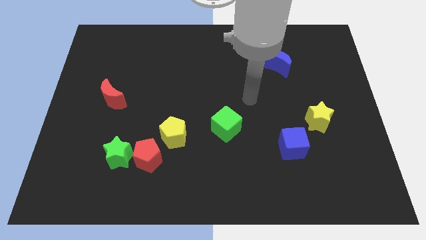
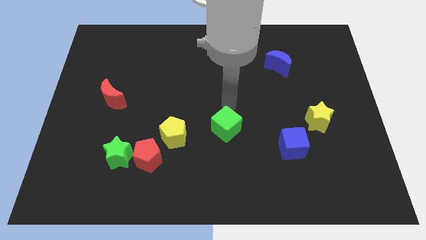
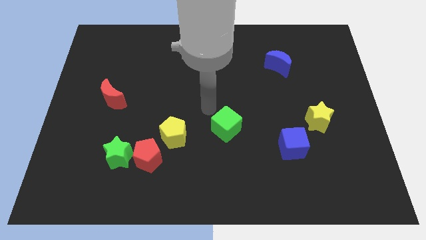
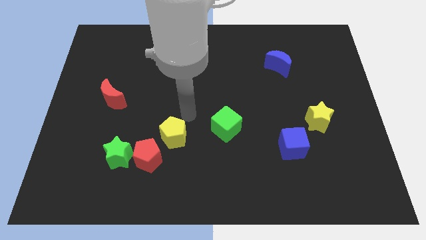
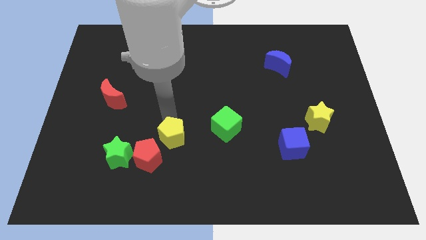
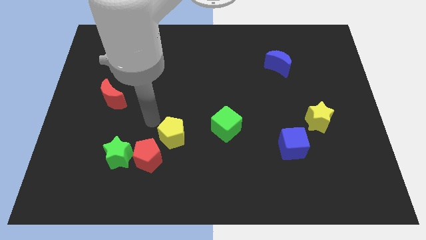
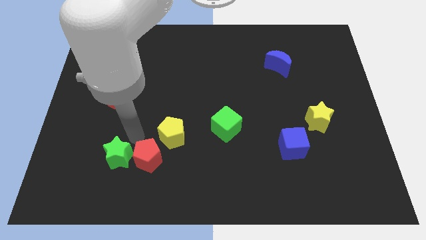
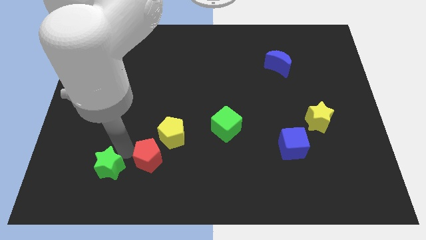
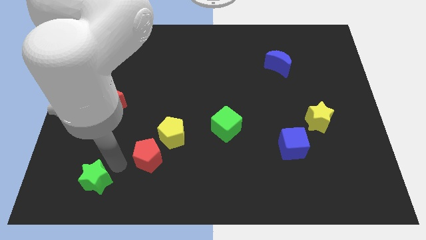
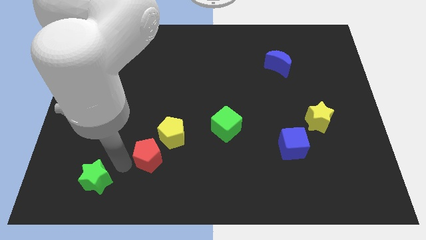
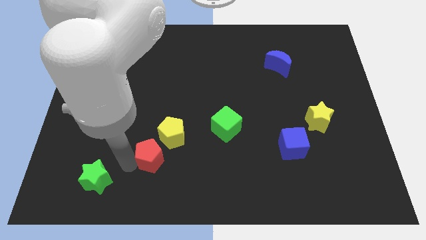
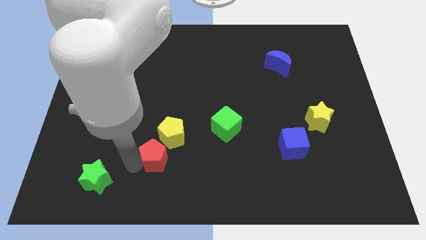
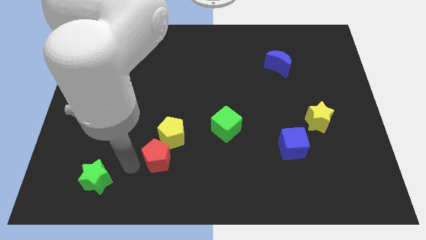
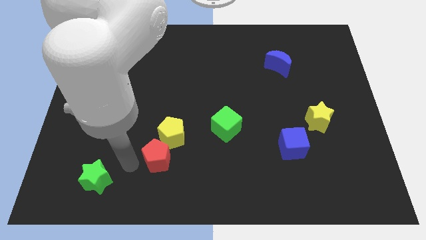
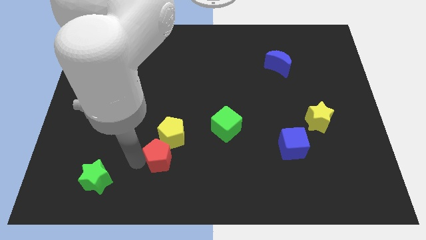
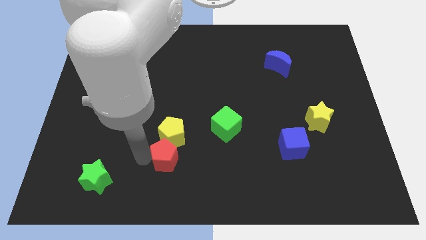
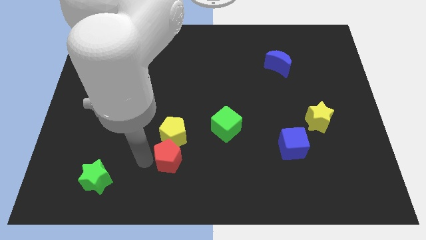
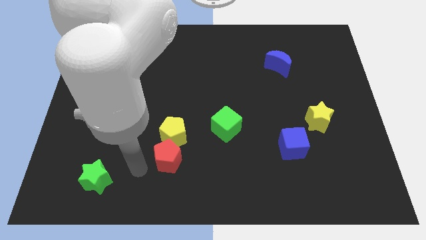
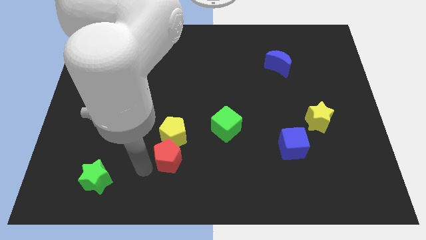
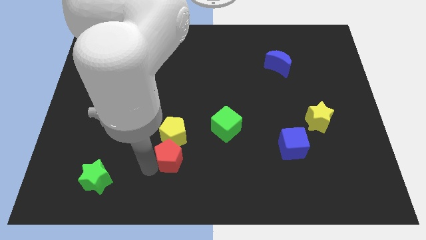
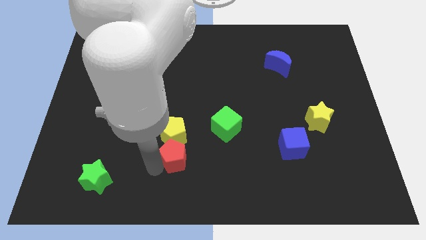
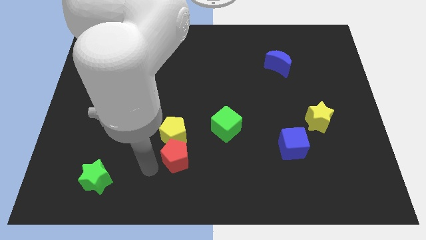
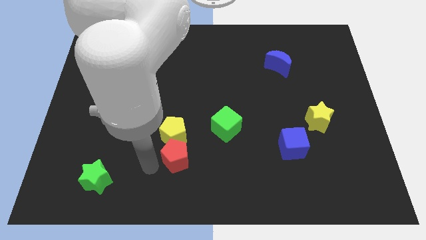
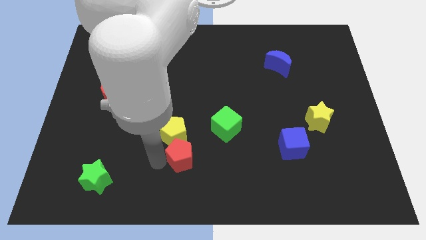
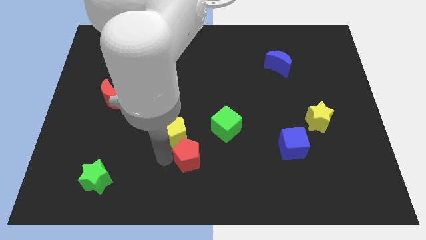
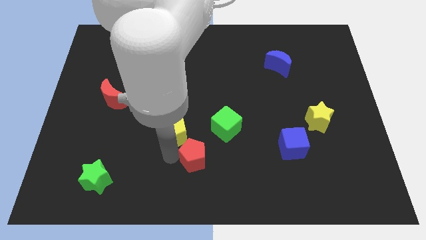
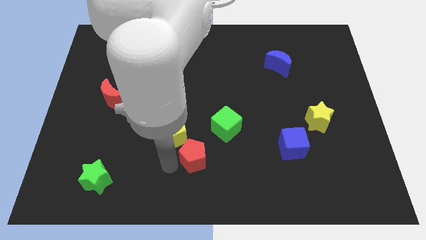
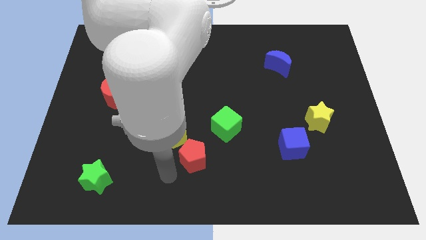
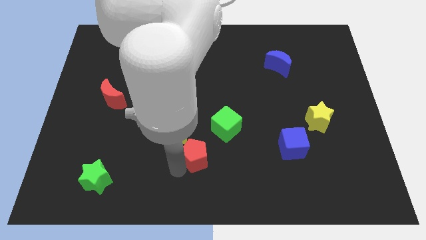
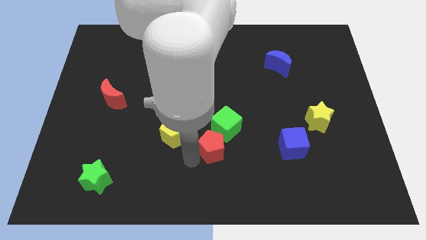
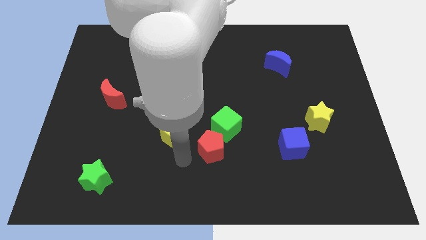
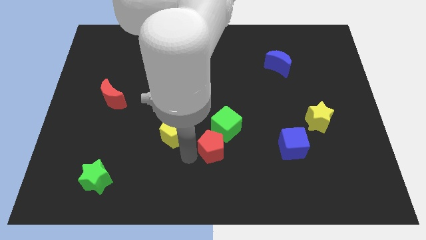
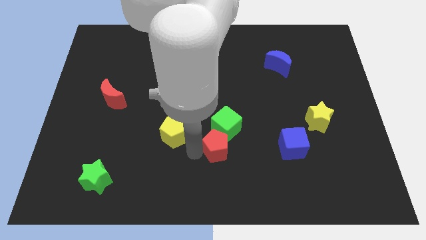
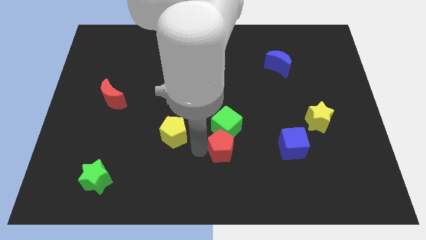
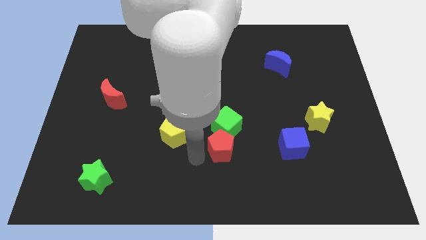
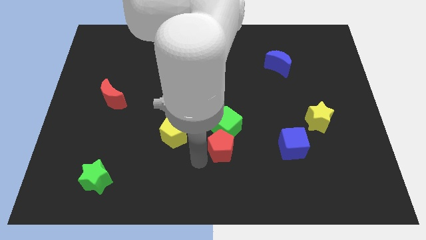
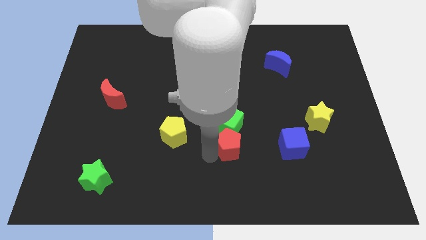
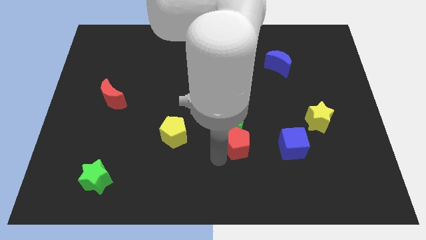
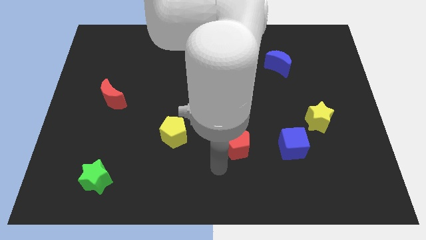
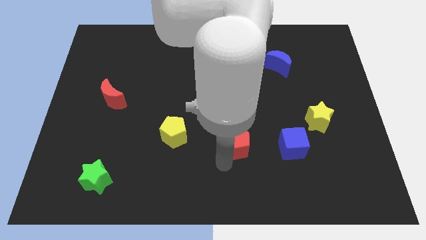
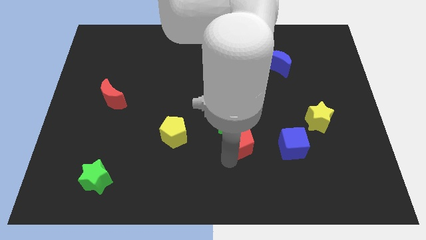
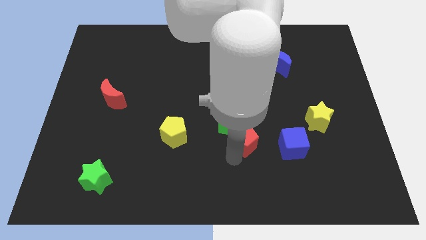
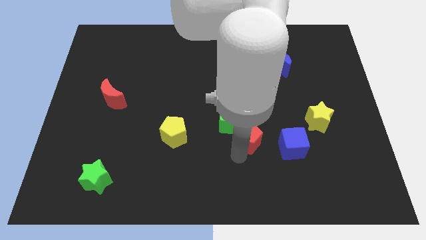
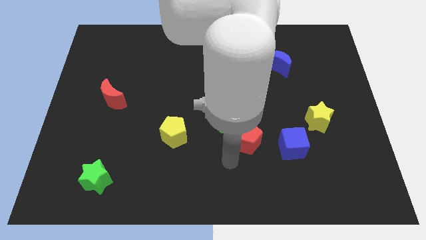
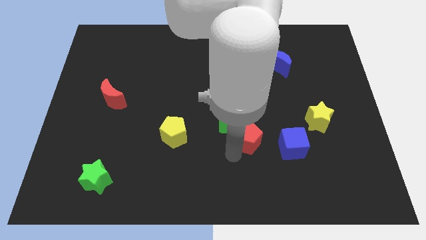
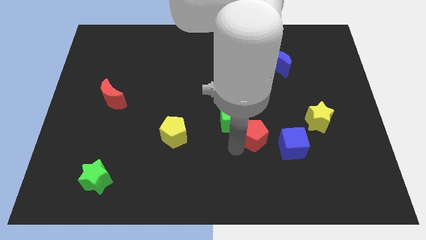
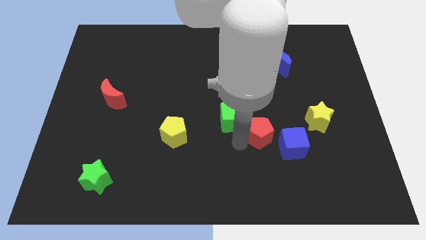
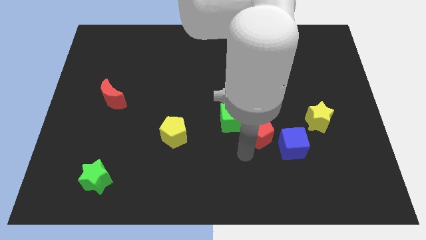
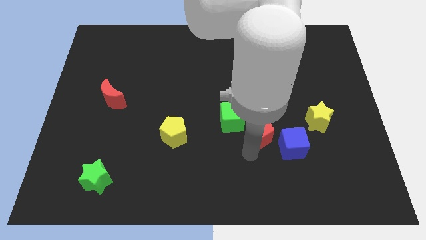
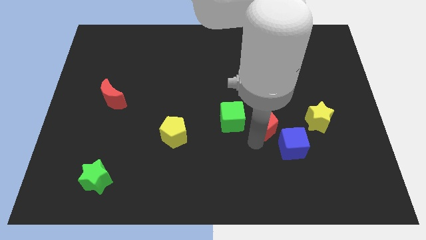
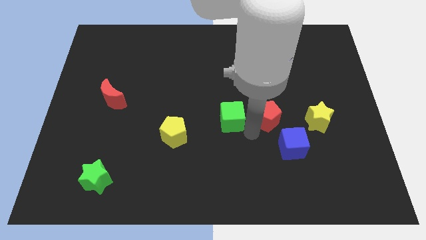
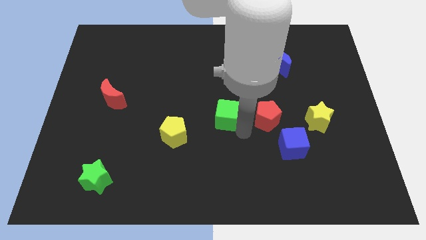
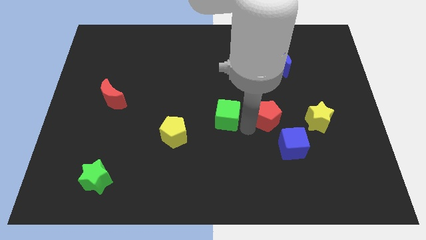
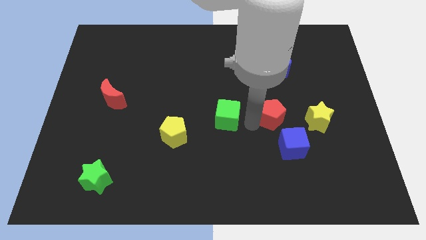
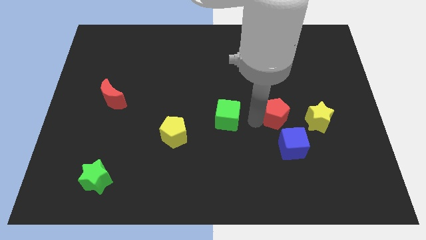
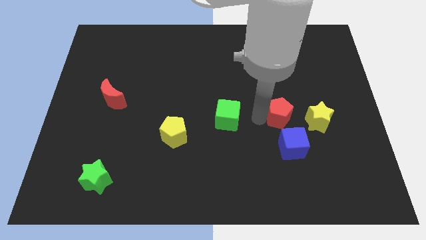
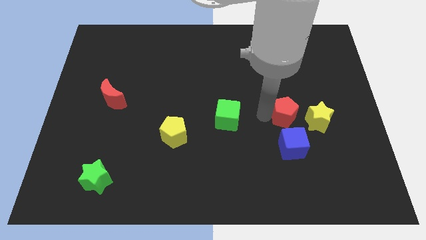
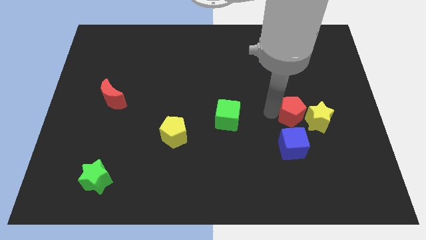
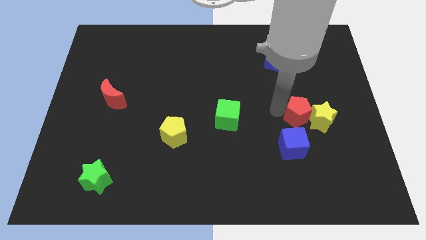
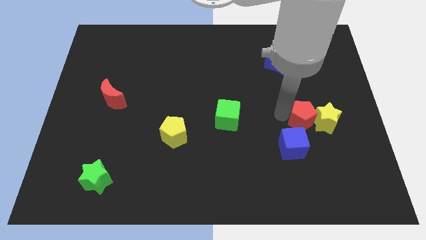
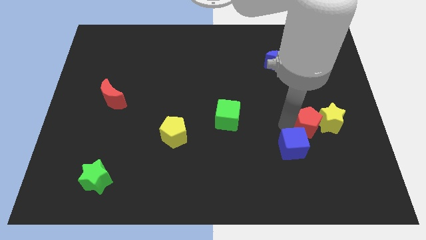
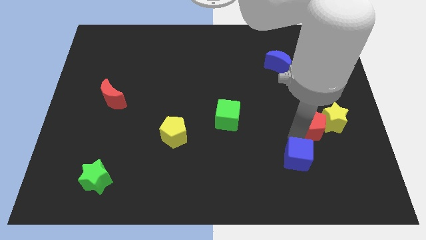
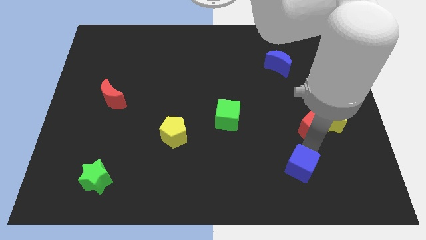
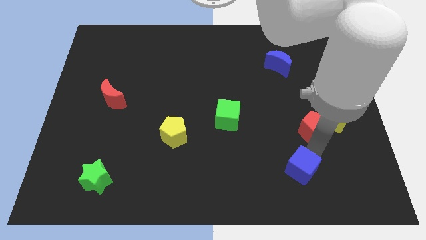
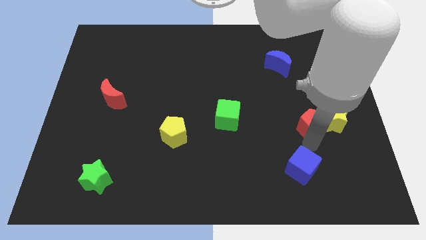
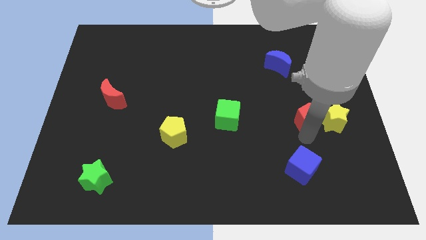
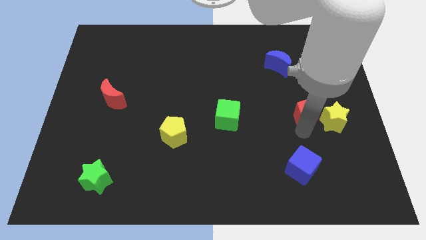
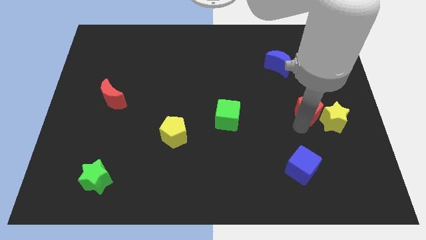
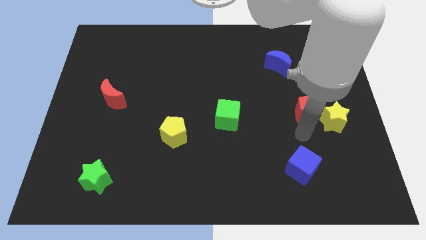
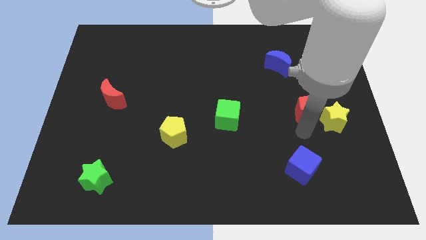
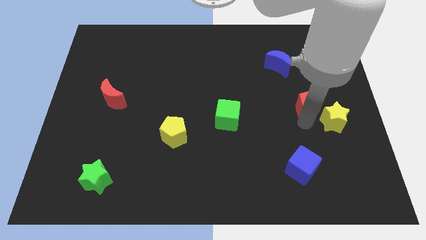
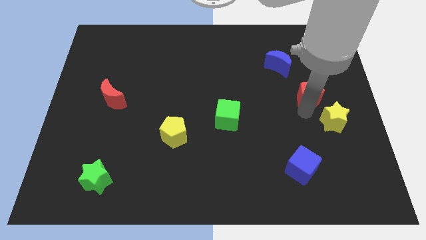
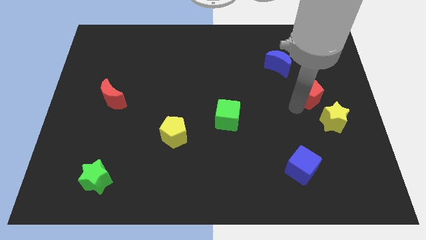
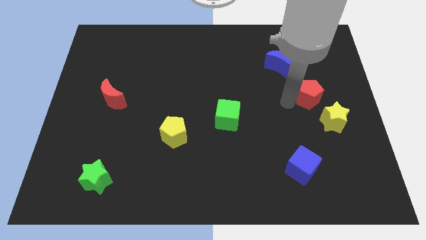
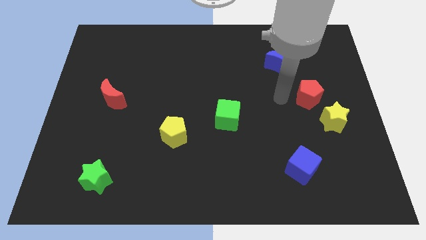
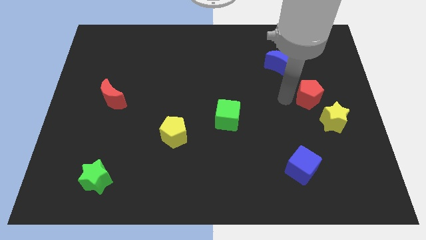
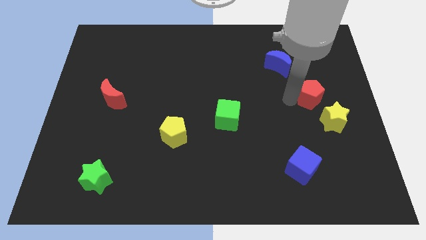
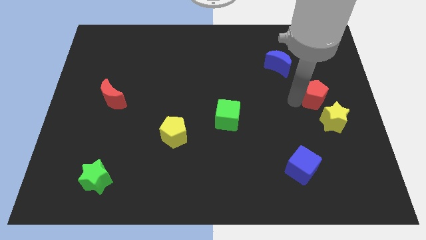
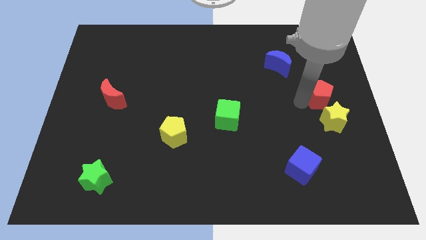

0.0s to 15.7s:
push the red pentagon to the right side
